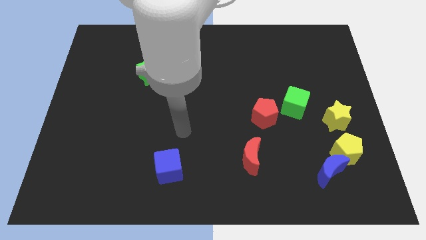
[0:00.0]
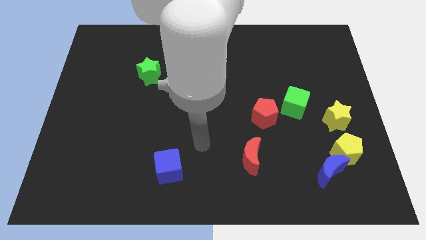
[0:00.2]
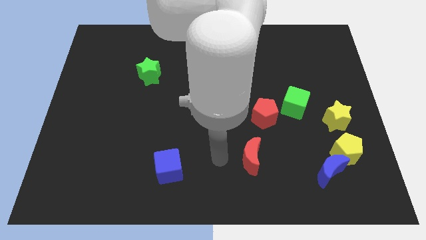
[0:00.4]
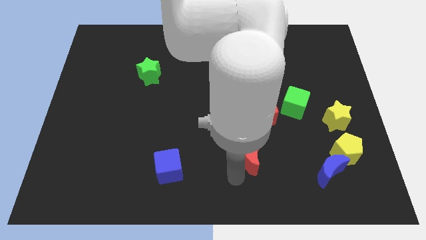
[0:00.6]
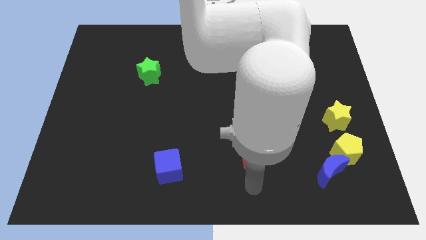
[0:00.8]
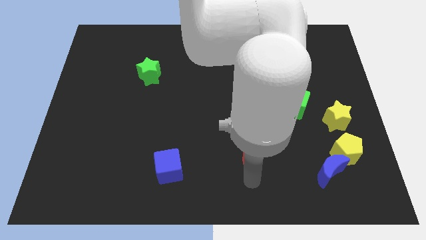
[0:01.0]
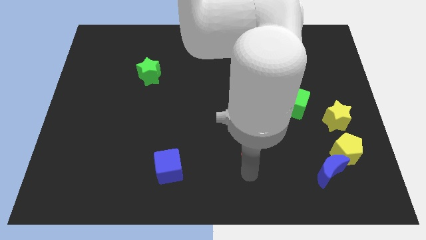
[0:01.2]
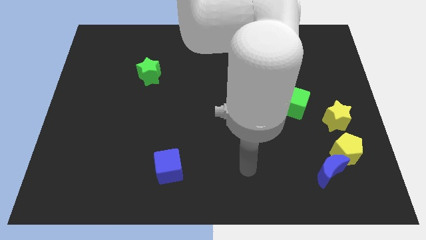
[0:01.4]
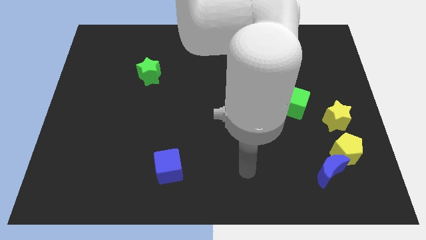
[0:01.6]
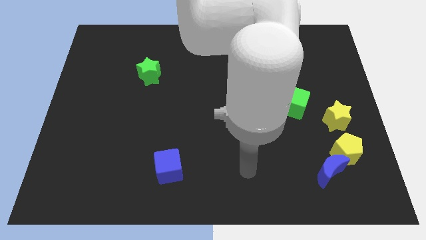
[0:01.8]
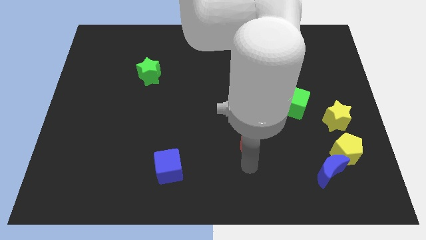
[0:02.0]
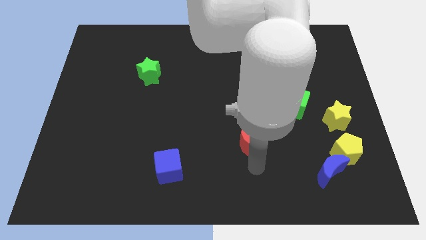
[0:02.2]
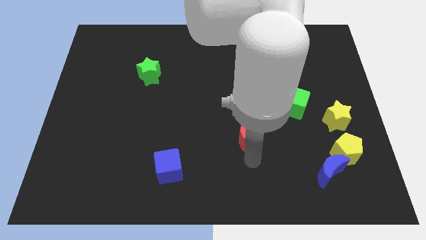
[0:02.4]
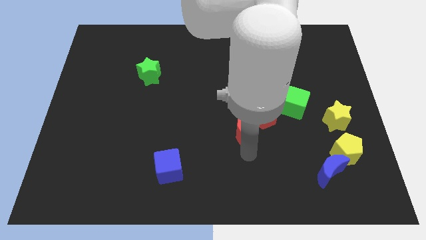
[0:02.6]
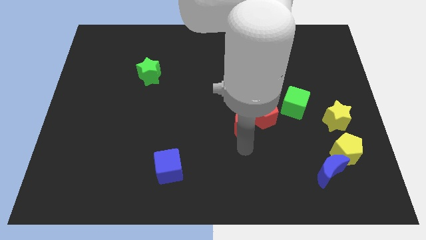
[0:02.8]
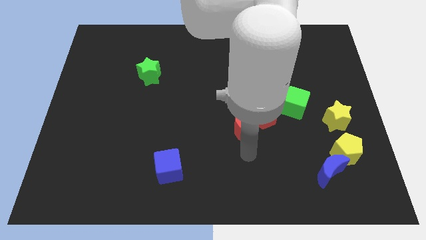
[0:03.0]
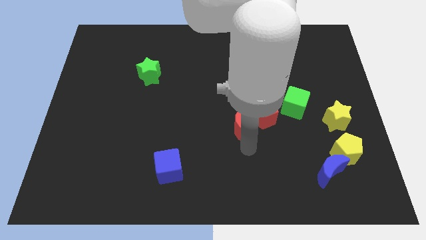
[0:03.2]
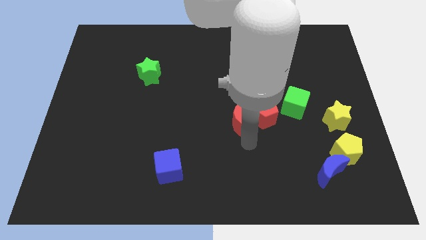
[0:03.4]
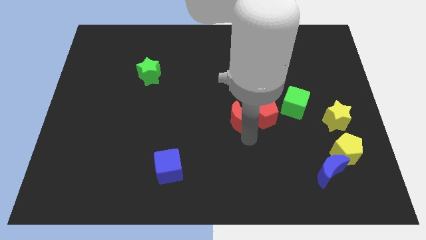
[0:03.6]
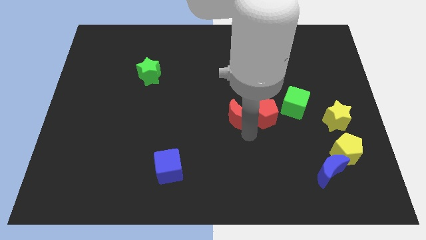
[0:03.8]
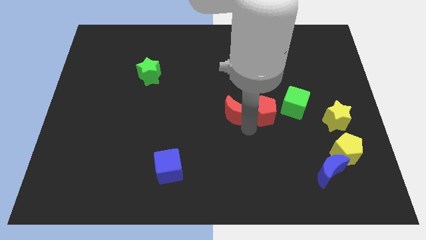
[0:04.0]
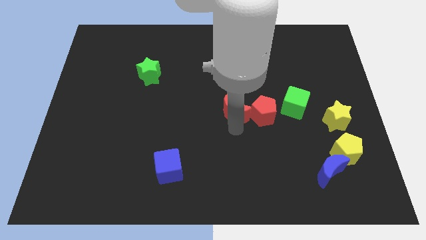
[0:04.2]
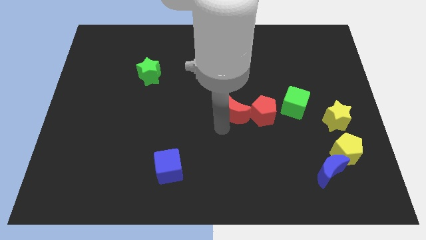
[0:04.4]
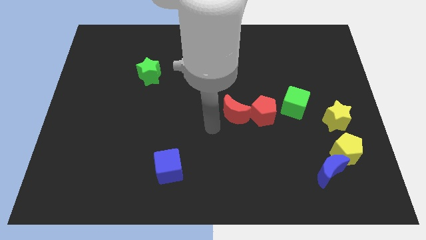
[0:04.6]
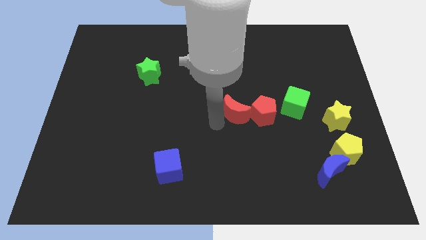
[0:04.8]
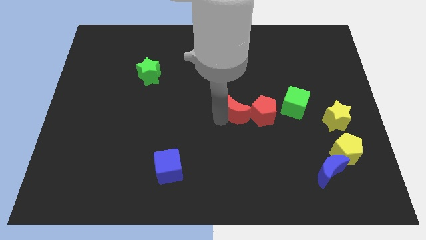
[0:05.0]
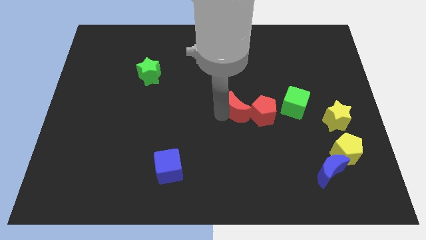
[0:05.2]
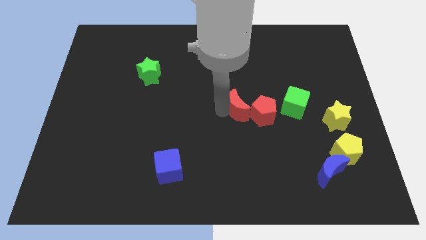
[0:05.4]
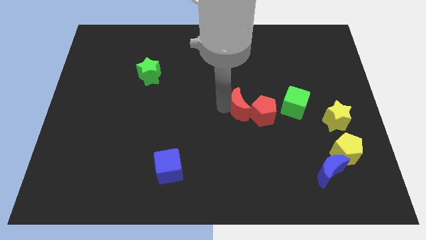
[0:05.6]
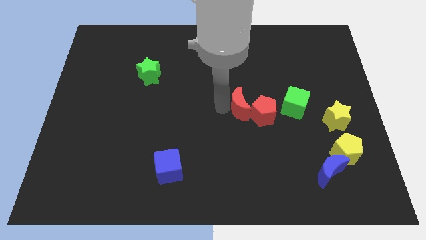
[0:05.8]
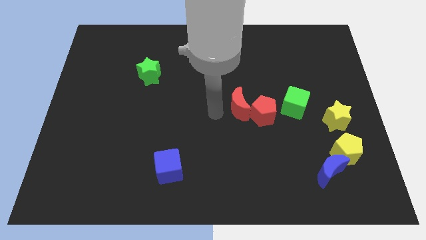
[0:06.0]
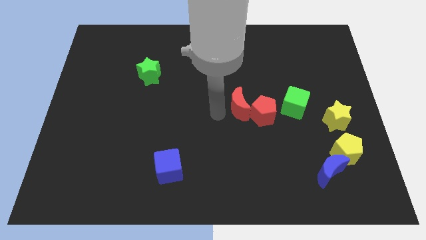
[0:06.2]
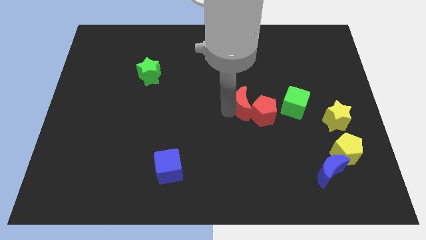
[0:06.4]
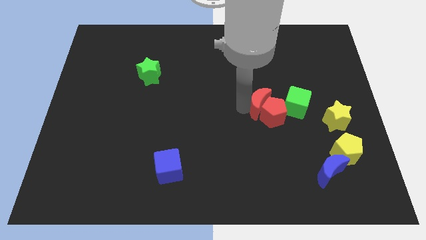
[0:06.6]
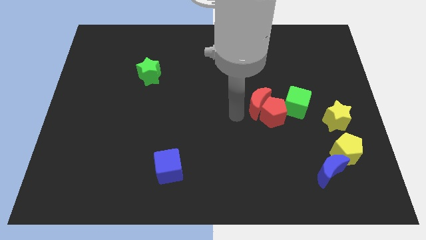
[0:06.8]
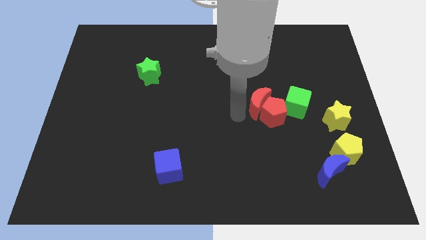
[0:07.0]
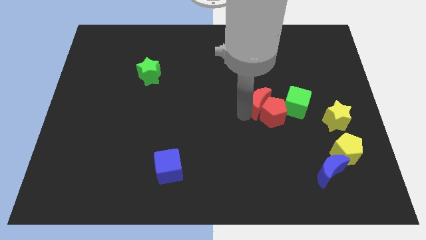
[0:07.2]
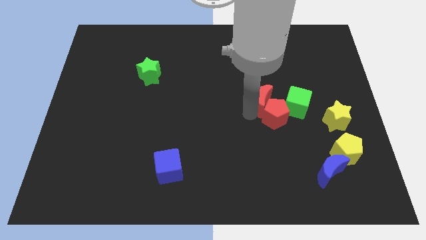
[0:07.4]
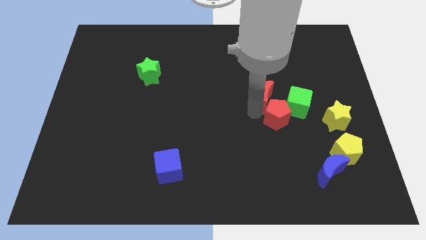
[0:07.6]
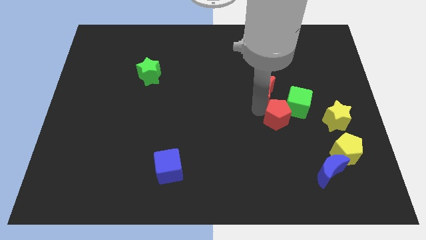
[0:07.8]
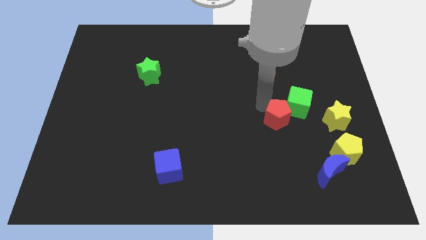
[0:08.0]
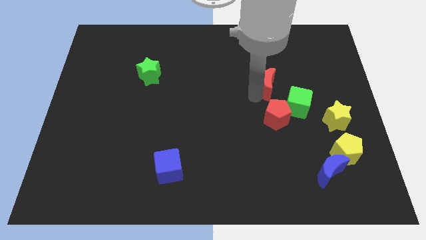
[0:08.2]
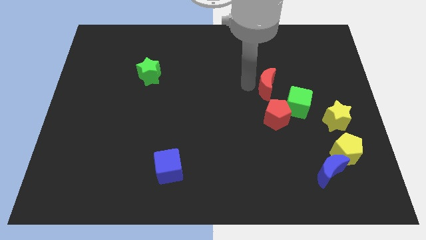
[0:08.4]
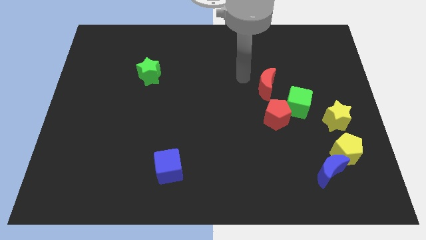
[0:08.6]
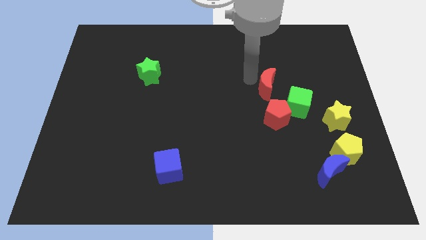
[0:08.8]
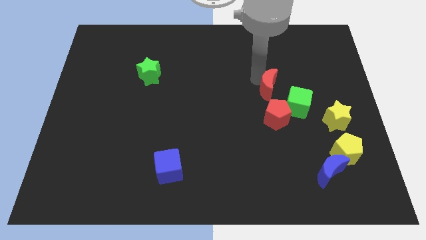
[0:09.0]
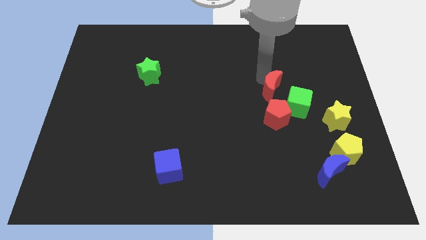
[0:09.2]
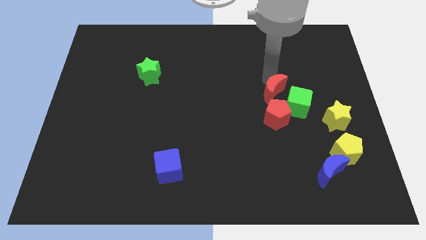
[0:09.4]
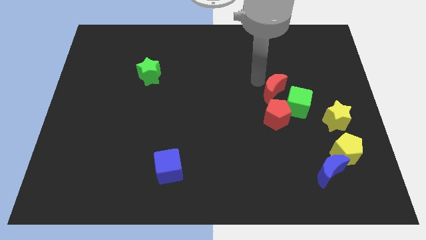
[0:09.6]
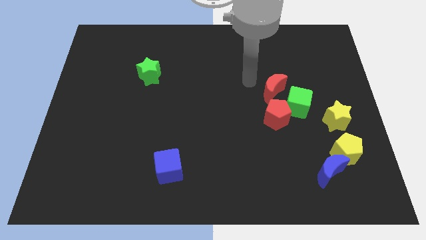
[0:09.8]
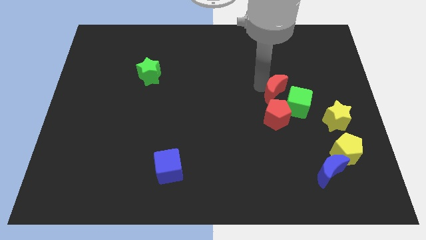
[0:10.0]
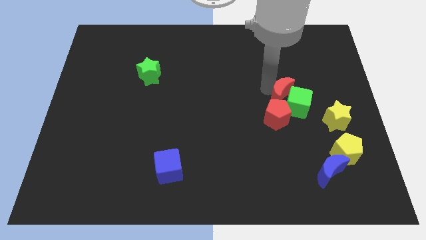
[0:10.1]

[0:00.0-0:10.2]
slide the red moon to the top right side of the red pentagon

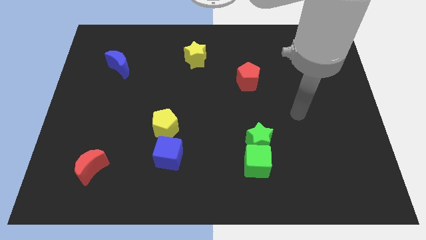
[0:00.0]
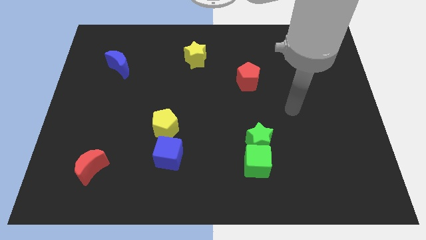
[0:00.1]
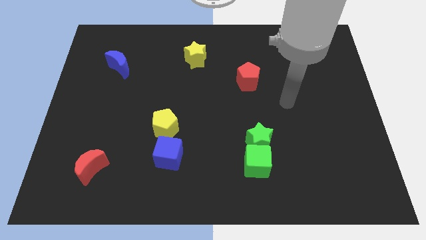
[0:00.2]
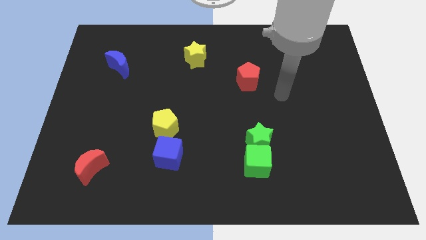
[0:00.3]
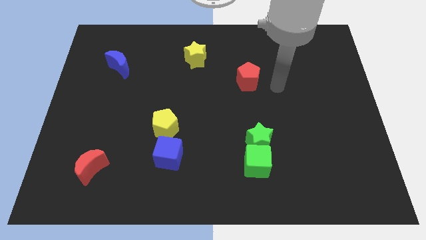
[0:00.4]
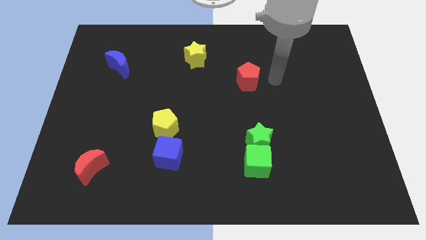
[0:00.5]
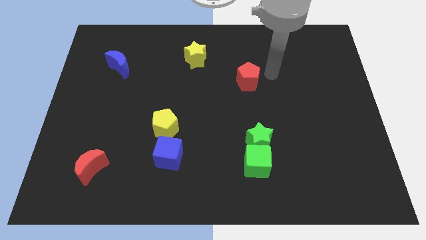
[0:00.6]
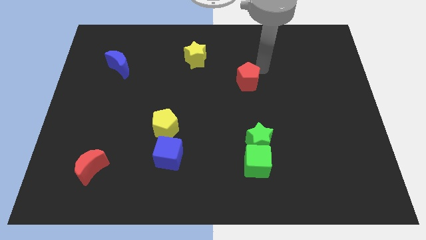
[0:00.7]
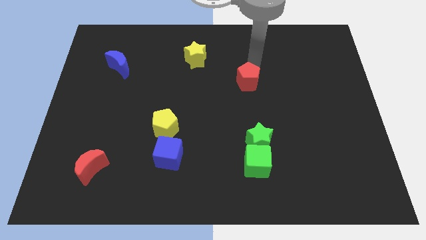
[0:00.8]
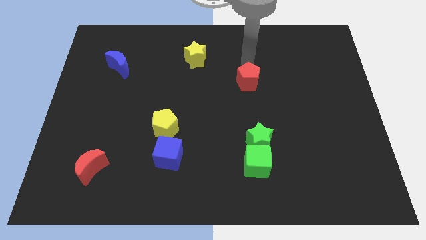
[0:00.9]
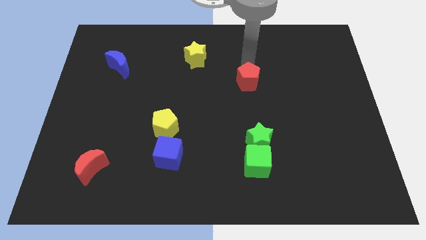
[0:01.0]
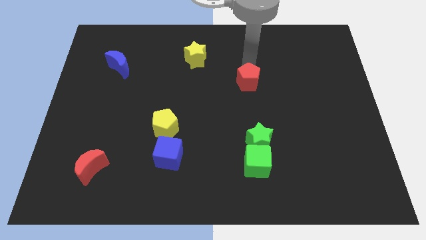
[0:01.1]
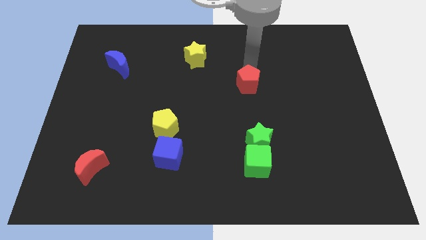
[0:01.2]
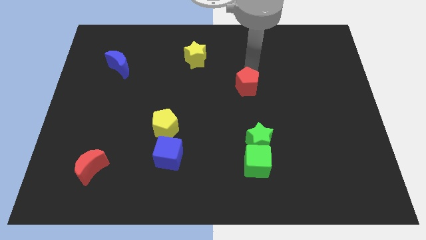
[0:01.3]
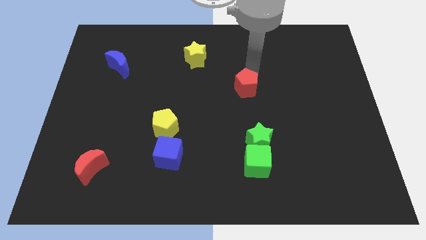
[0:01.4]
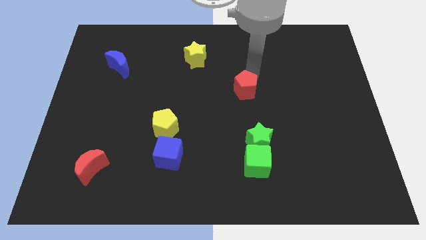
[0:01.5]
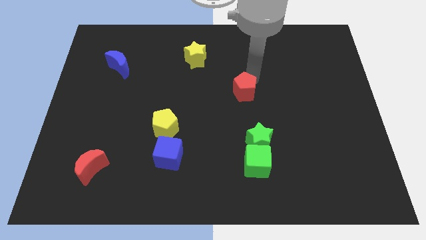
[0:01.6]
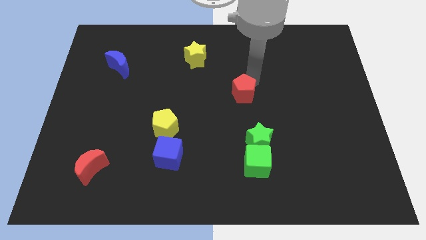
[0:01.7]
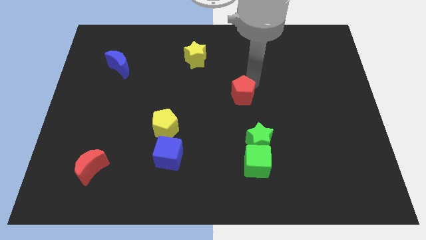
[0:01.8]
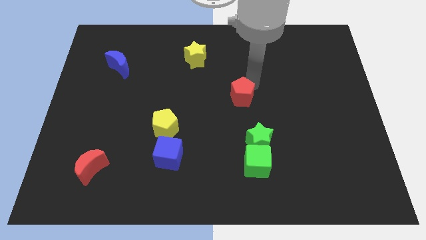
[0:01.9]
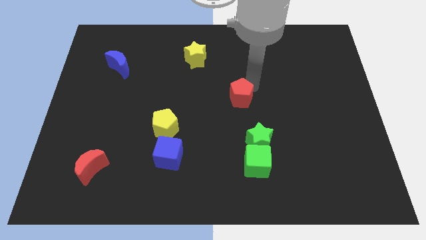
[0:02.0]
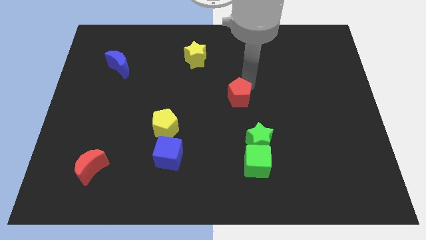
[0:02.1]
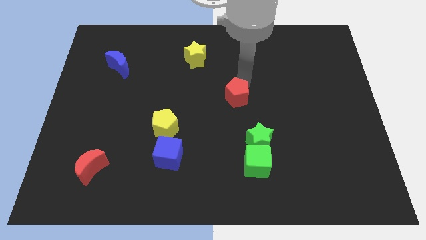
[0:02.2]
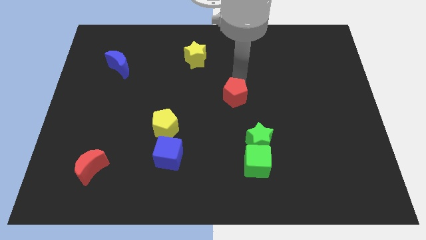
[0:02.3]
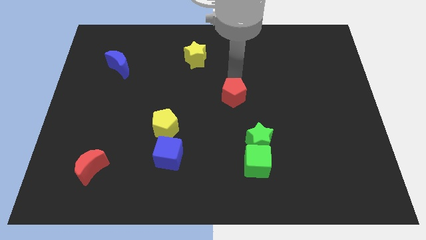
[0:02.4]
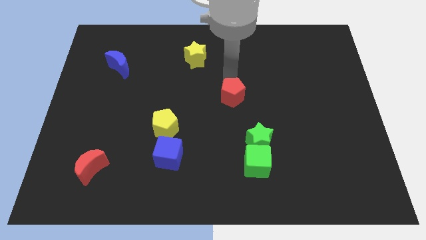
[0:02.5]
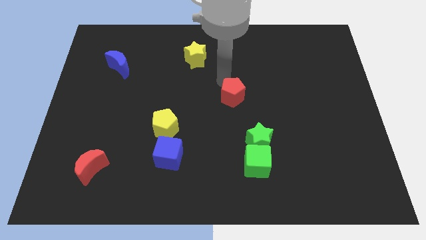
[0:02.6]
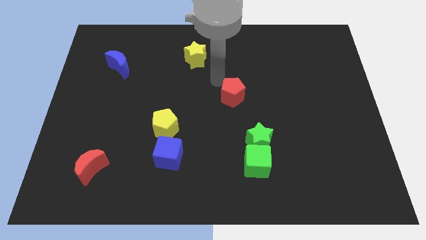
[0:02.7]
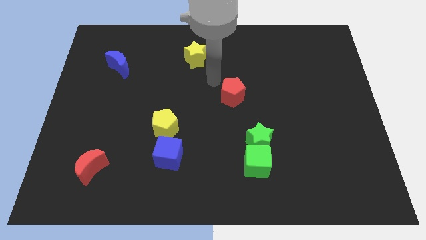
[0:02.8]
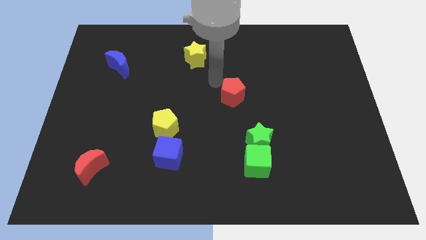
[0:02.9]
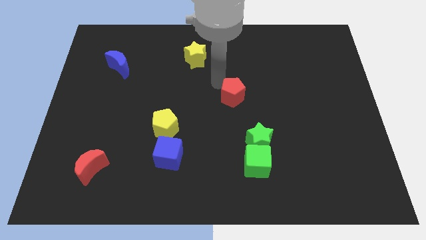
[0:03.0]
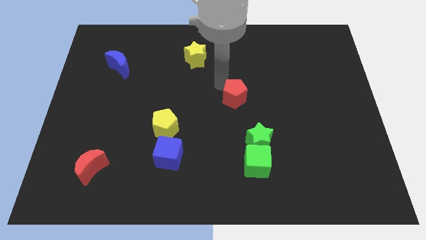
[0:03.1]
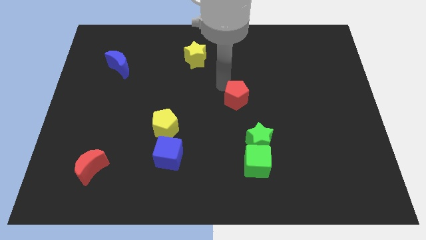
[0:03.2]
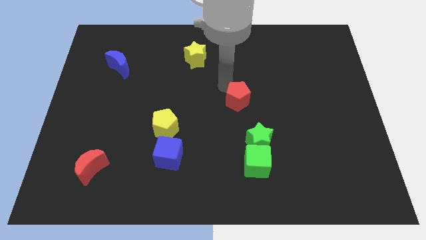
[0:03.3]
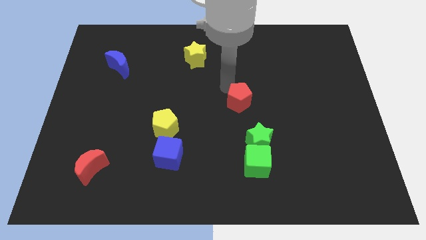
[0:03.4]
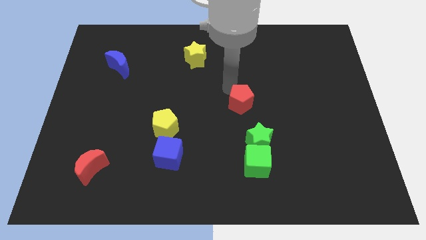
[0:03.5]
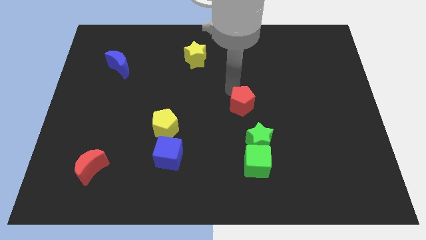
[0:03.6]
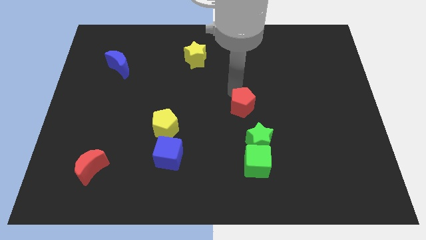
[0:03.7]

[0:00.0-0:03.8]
put the red pentagon to the top of the green cube
